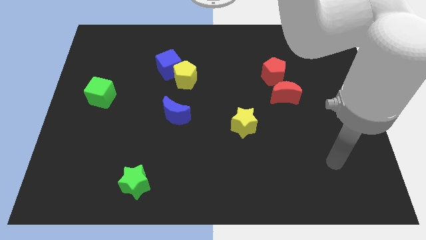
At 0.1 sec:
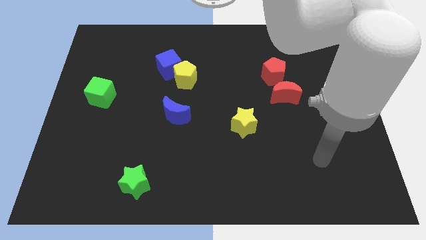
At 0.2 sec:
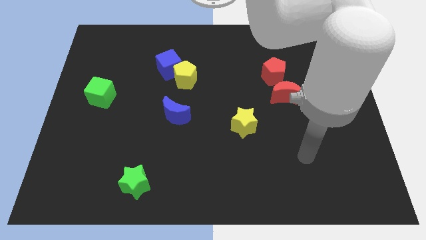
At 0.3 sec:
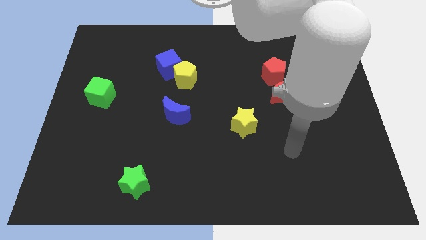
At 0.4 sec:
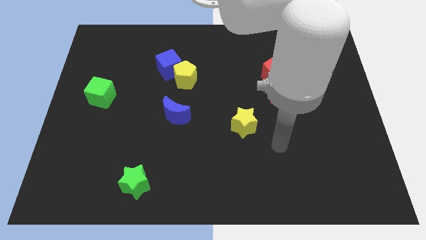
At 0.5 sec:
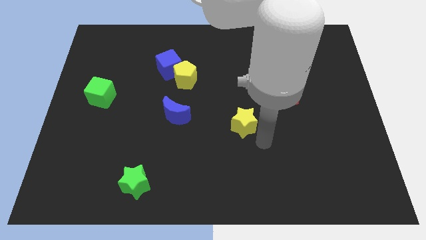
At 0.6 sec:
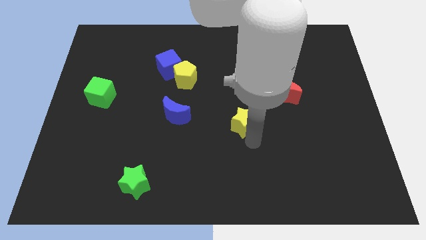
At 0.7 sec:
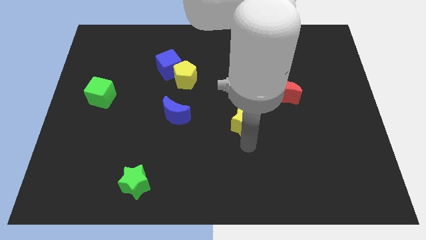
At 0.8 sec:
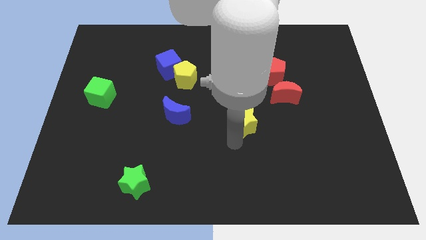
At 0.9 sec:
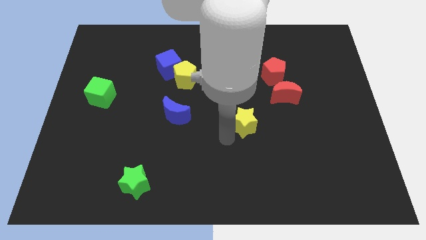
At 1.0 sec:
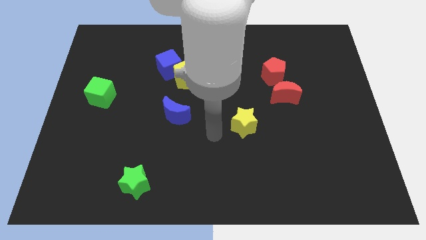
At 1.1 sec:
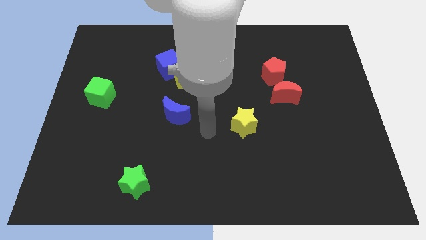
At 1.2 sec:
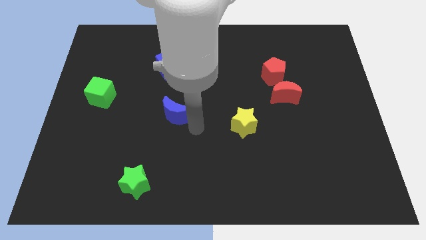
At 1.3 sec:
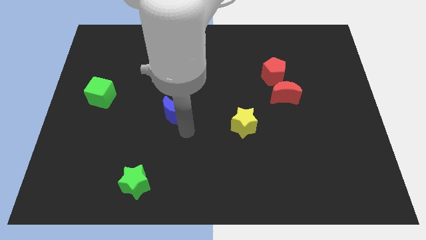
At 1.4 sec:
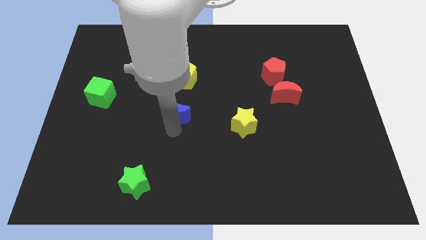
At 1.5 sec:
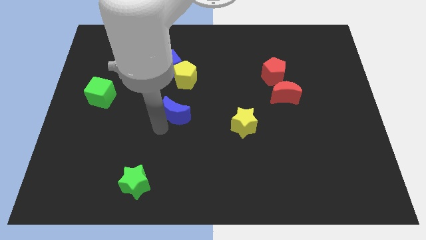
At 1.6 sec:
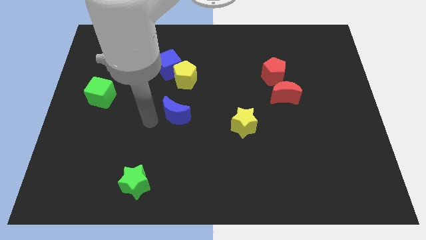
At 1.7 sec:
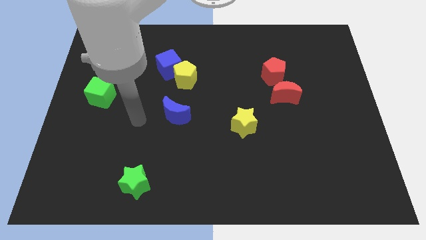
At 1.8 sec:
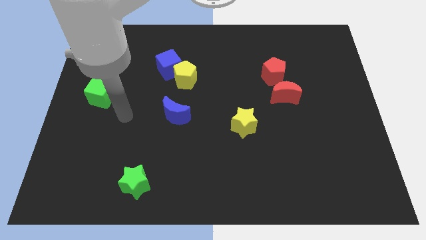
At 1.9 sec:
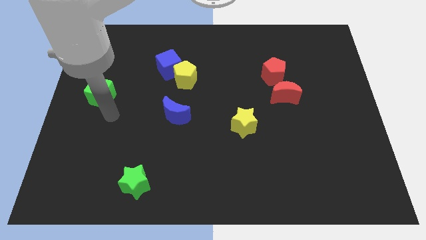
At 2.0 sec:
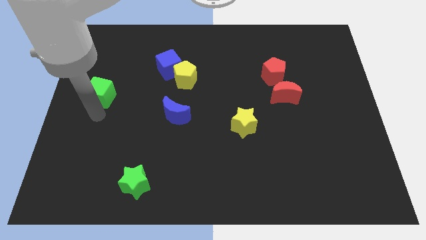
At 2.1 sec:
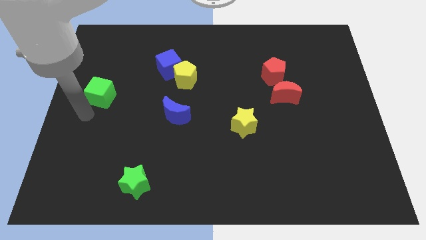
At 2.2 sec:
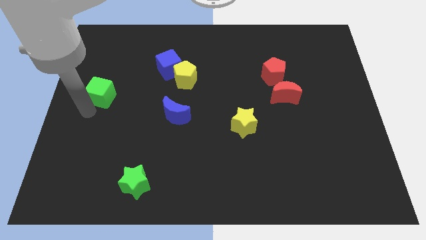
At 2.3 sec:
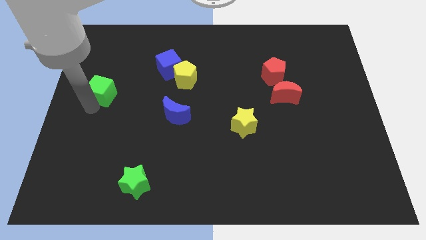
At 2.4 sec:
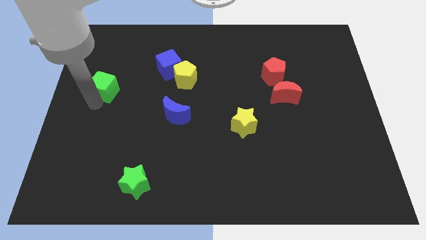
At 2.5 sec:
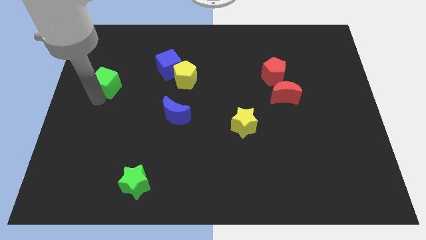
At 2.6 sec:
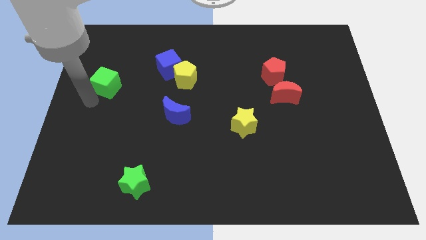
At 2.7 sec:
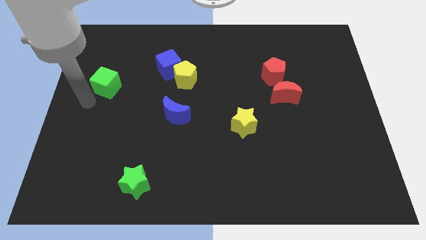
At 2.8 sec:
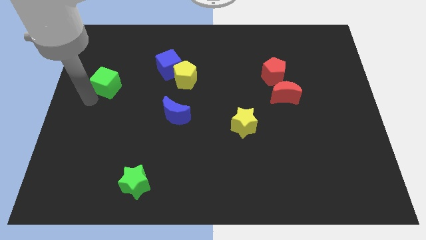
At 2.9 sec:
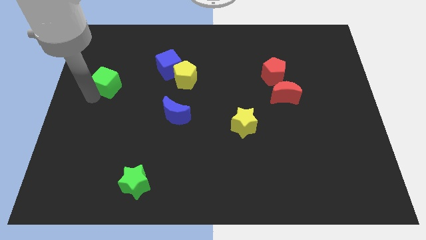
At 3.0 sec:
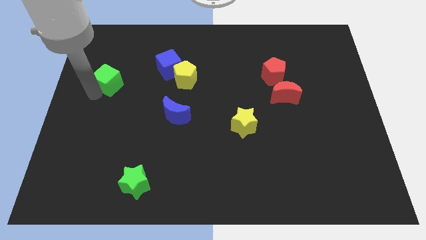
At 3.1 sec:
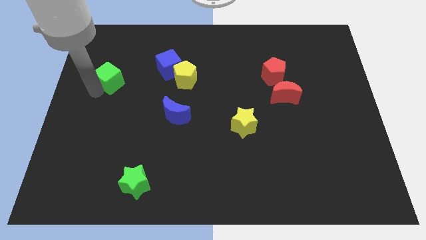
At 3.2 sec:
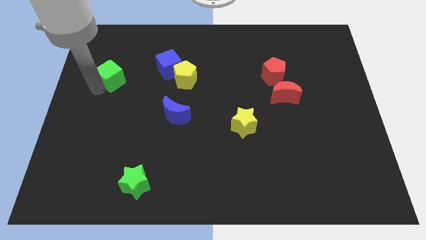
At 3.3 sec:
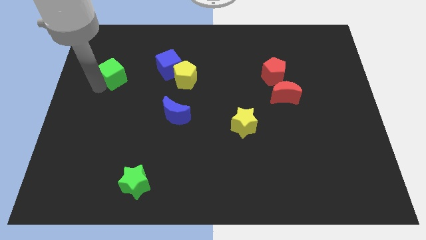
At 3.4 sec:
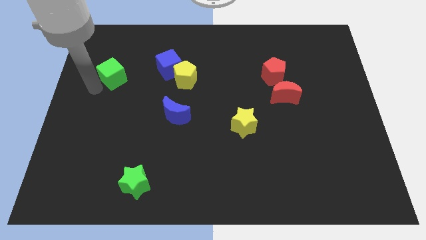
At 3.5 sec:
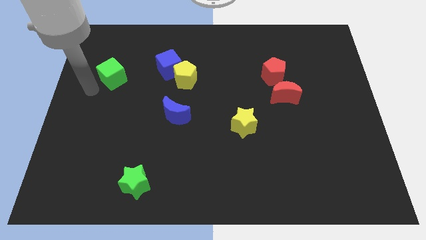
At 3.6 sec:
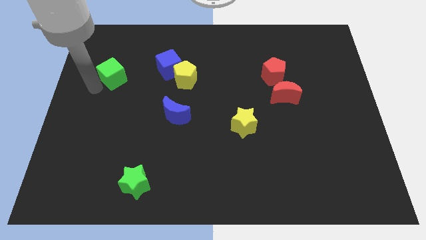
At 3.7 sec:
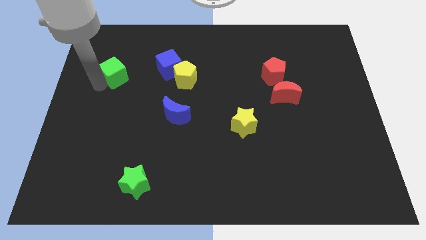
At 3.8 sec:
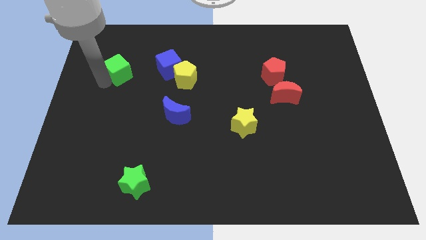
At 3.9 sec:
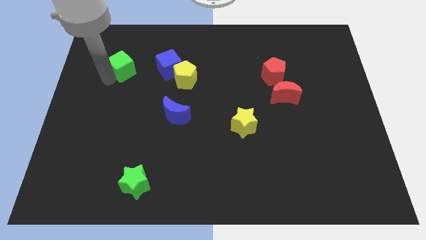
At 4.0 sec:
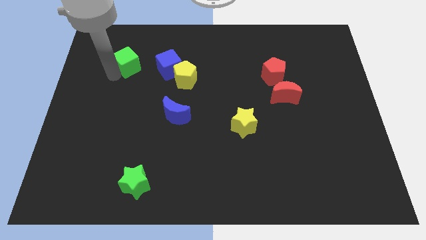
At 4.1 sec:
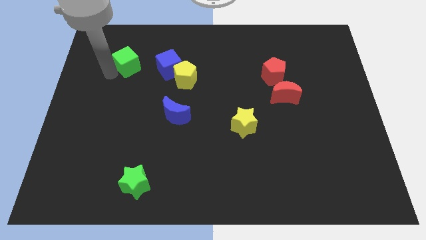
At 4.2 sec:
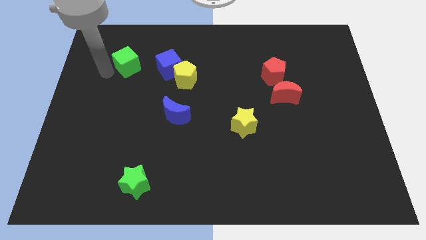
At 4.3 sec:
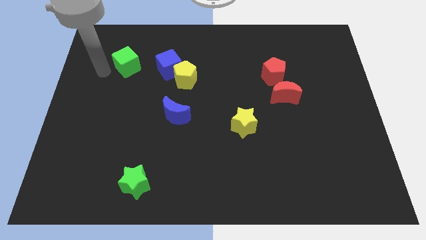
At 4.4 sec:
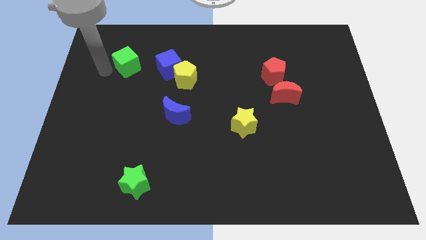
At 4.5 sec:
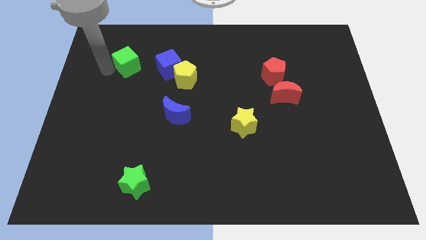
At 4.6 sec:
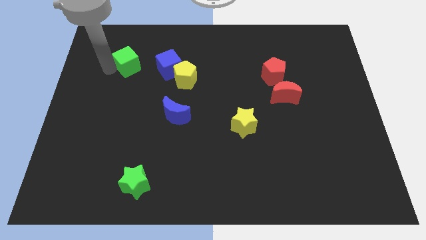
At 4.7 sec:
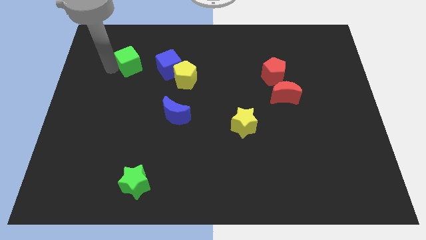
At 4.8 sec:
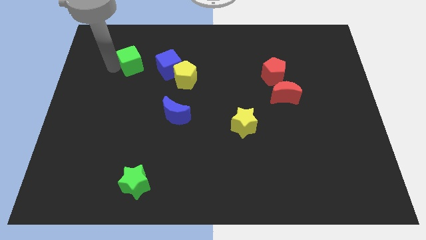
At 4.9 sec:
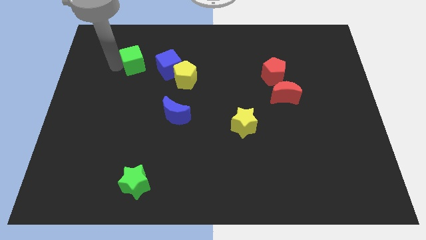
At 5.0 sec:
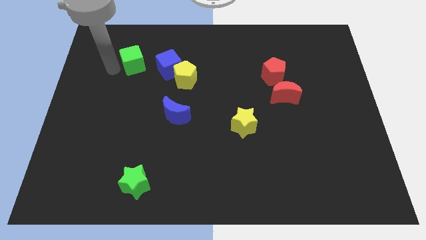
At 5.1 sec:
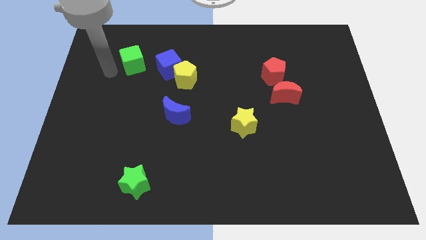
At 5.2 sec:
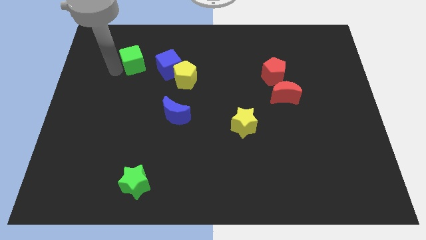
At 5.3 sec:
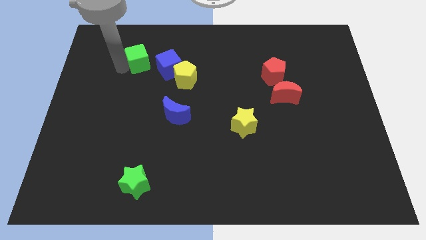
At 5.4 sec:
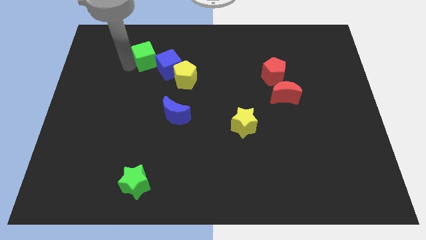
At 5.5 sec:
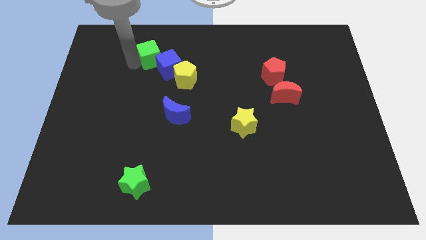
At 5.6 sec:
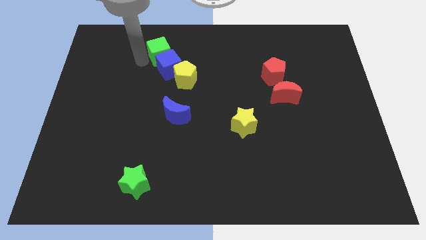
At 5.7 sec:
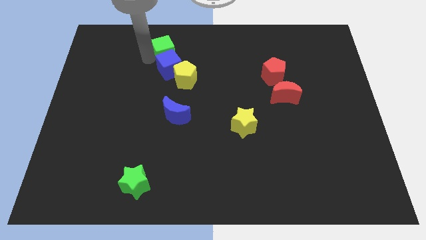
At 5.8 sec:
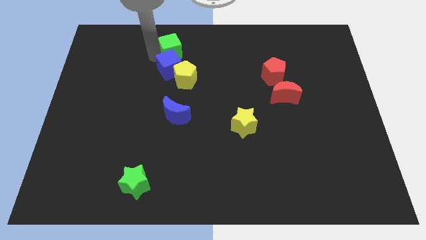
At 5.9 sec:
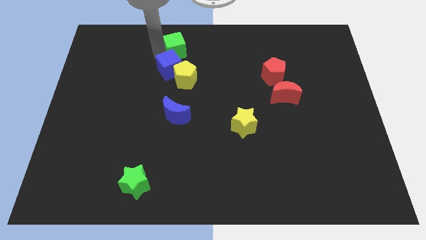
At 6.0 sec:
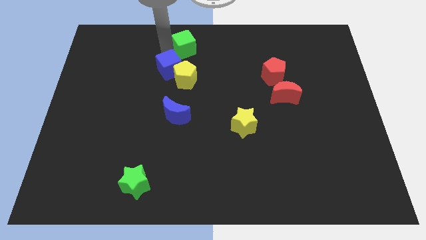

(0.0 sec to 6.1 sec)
move the green cube to the towards your base

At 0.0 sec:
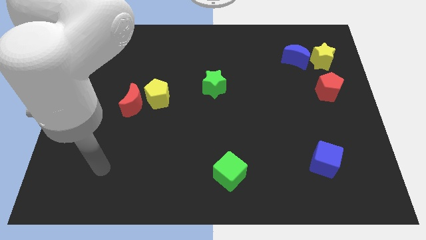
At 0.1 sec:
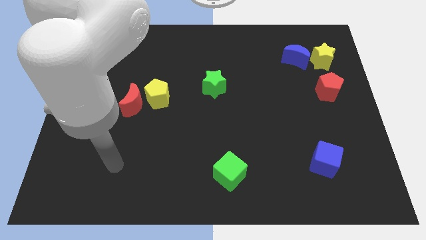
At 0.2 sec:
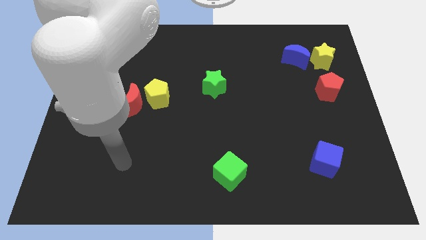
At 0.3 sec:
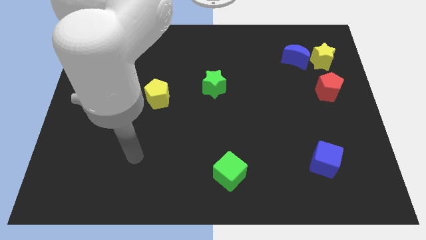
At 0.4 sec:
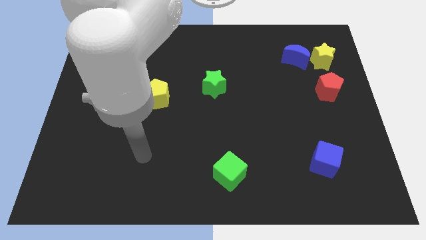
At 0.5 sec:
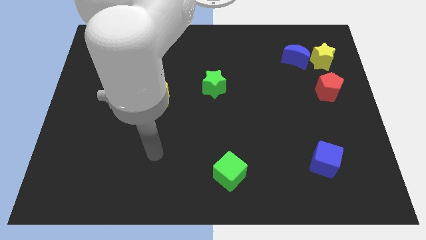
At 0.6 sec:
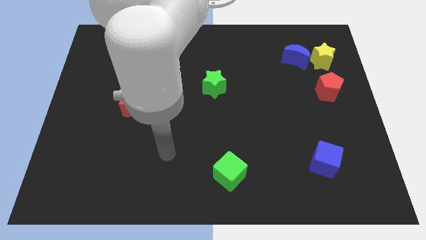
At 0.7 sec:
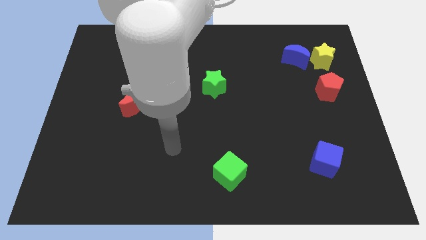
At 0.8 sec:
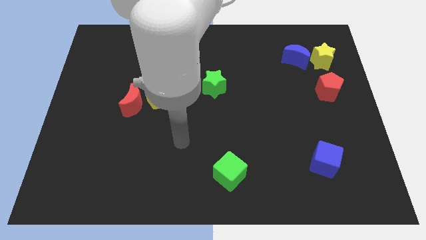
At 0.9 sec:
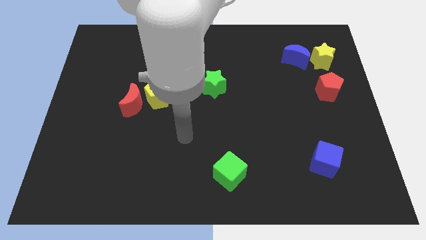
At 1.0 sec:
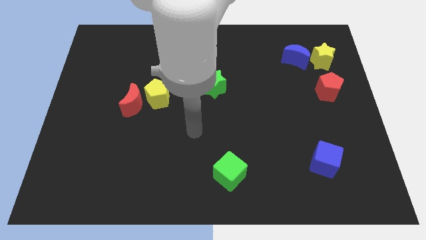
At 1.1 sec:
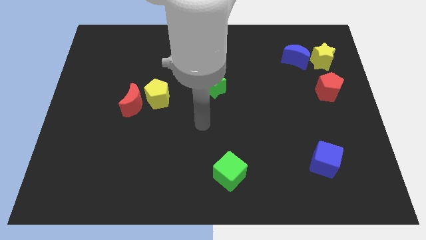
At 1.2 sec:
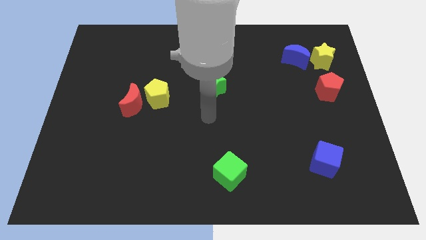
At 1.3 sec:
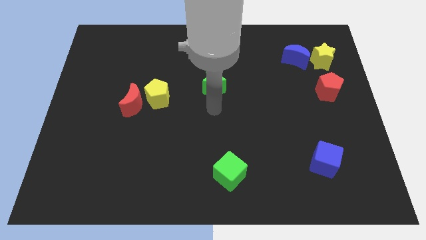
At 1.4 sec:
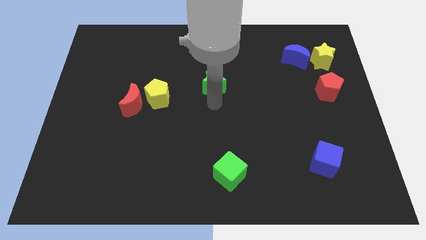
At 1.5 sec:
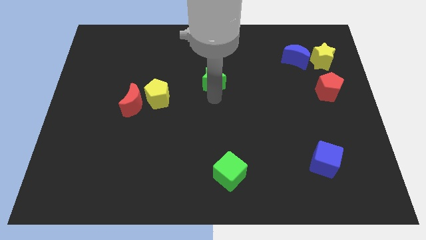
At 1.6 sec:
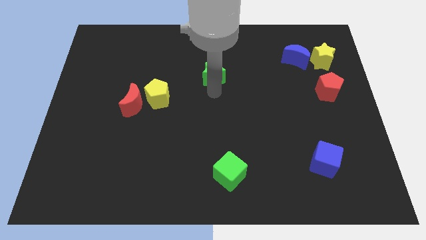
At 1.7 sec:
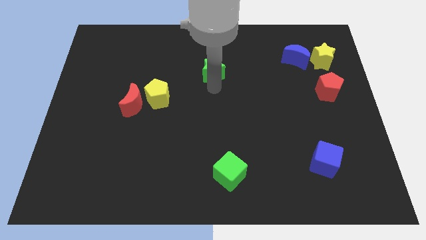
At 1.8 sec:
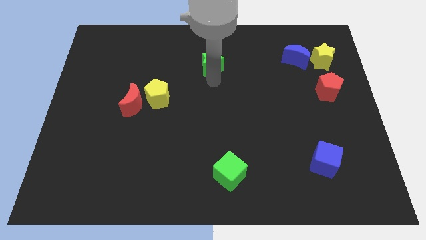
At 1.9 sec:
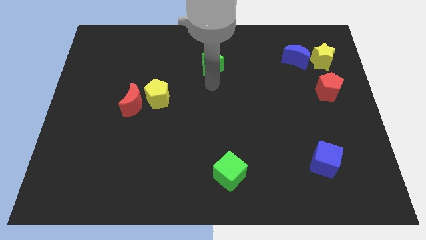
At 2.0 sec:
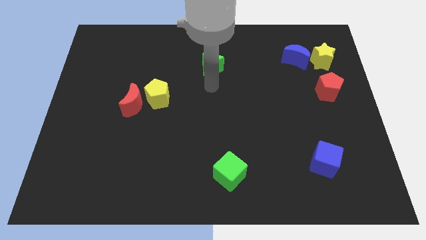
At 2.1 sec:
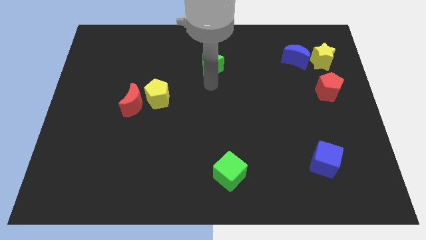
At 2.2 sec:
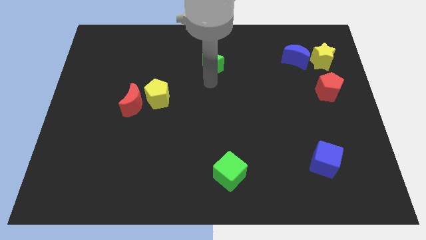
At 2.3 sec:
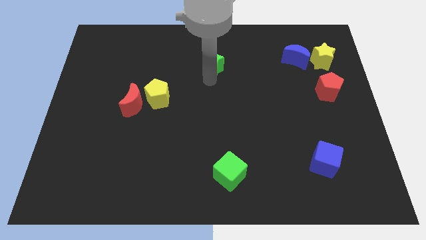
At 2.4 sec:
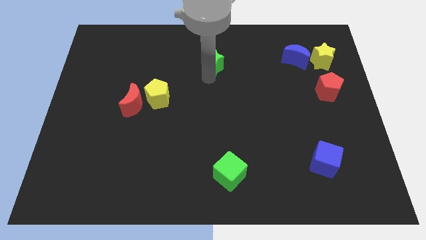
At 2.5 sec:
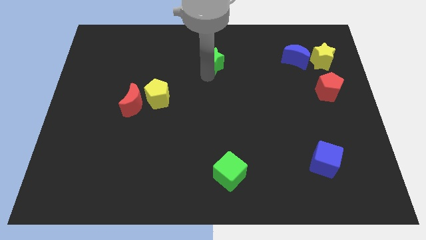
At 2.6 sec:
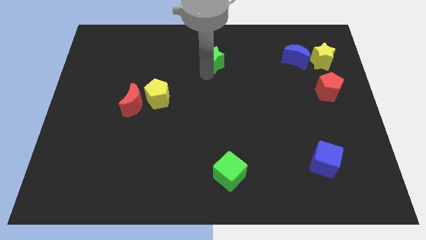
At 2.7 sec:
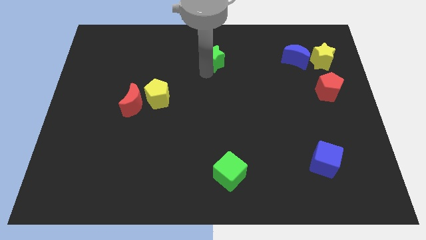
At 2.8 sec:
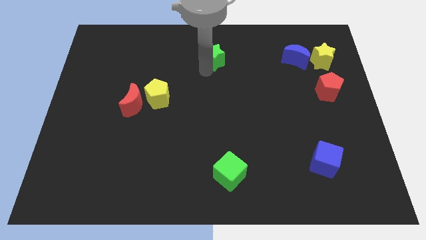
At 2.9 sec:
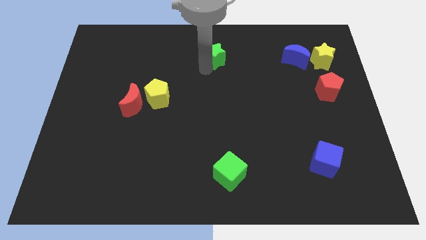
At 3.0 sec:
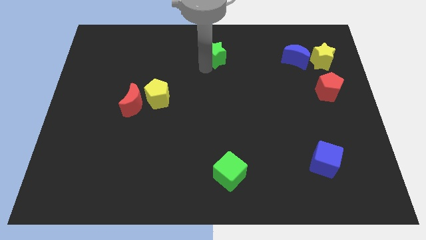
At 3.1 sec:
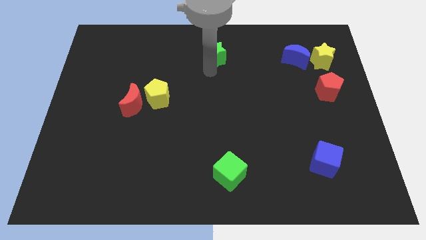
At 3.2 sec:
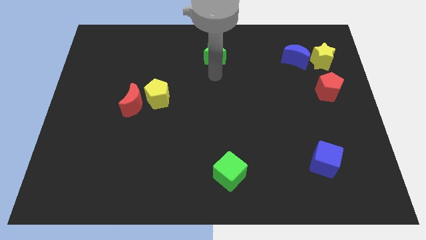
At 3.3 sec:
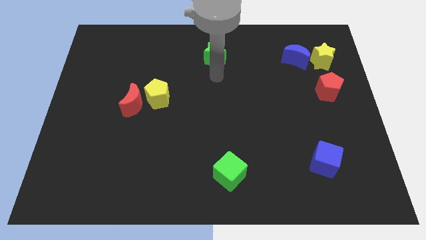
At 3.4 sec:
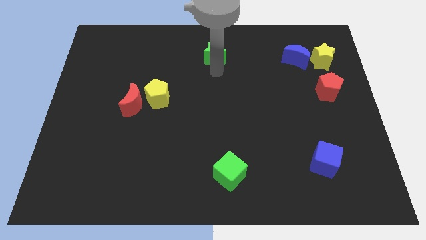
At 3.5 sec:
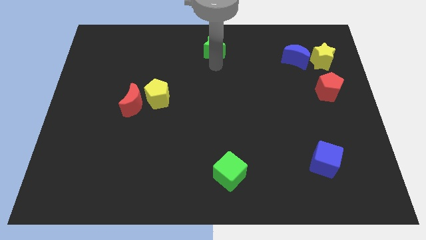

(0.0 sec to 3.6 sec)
put the green star to the top side
